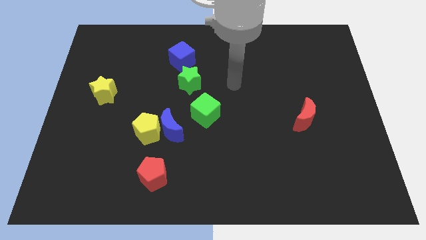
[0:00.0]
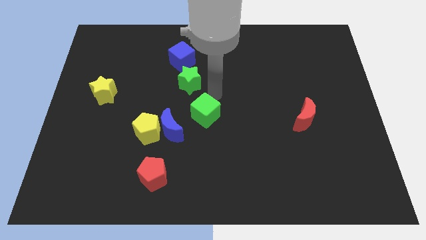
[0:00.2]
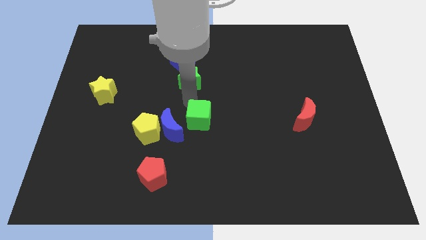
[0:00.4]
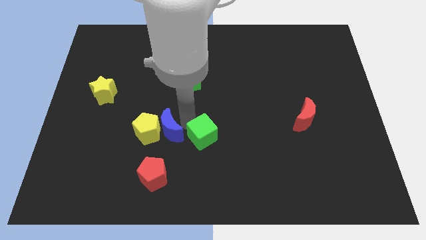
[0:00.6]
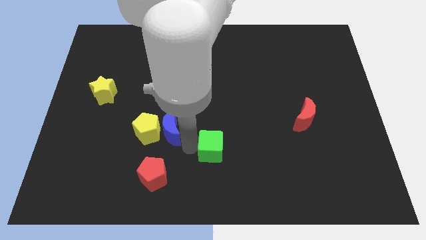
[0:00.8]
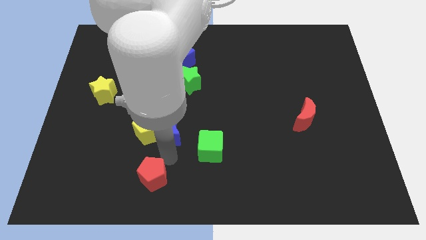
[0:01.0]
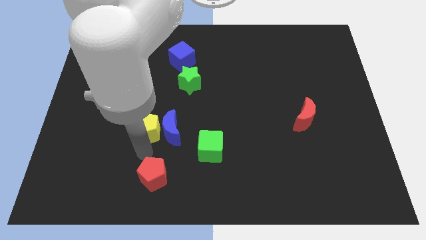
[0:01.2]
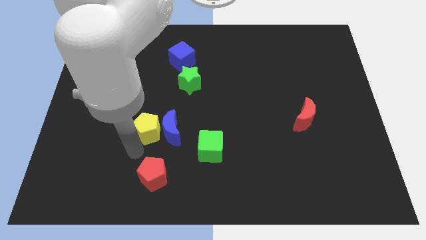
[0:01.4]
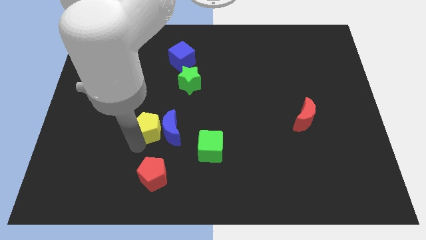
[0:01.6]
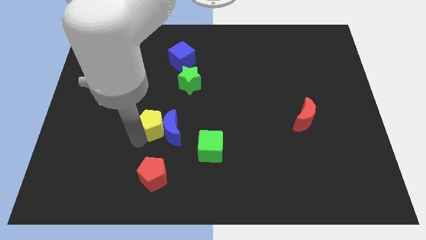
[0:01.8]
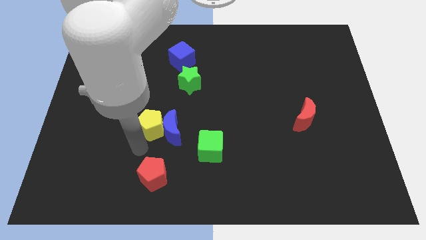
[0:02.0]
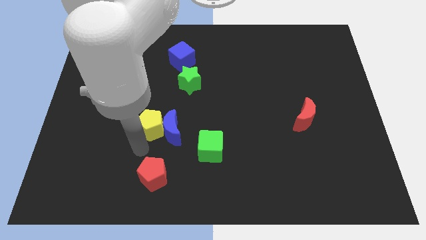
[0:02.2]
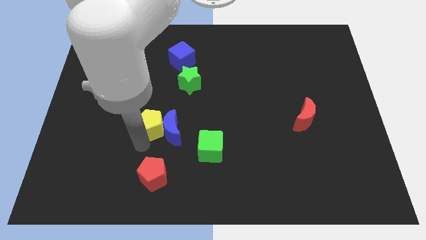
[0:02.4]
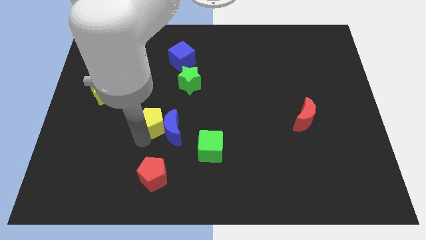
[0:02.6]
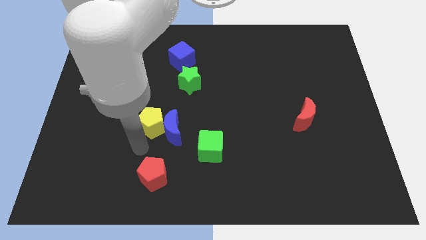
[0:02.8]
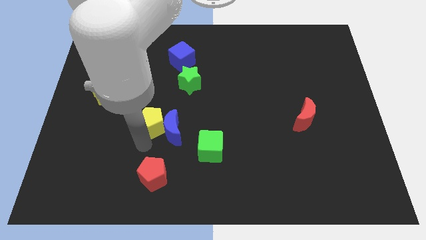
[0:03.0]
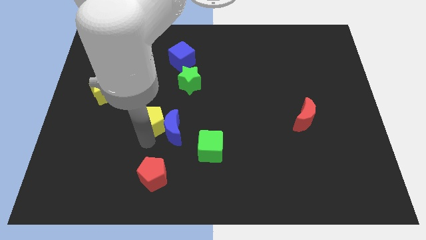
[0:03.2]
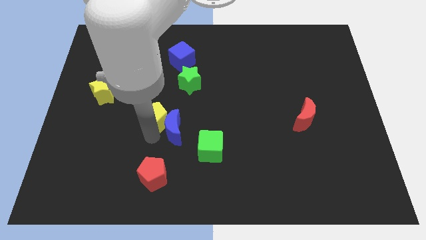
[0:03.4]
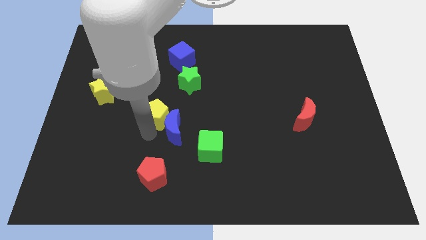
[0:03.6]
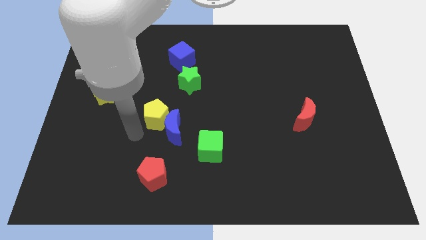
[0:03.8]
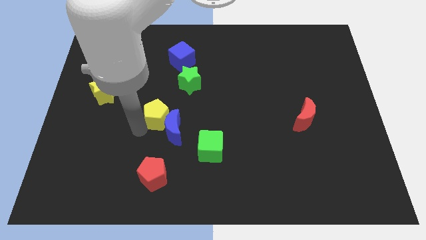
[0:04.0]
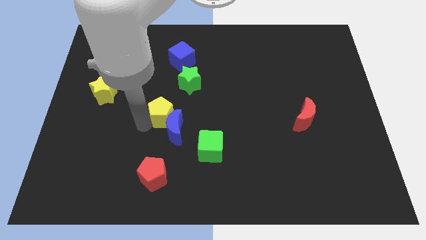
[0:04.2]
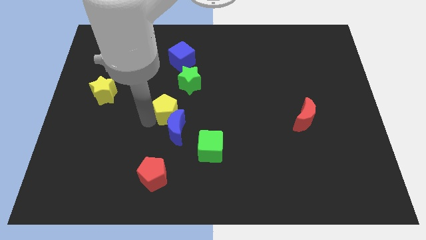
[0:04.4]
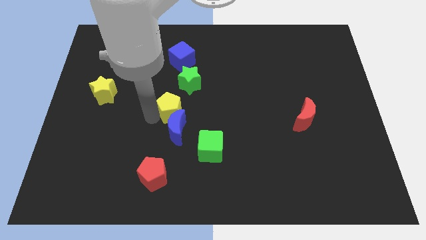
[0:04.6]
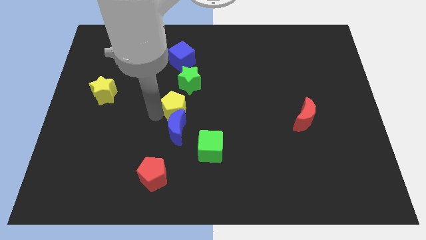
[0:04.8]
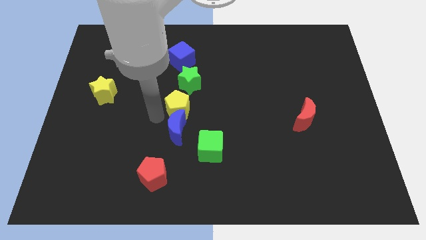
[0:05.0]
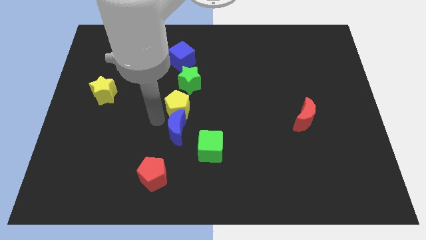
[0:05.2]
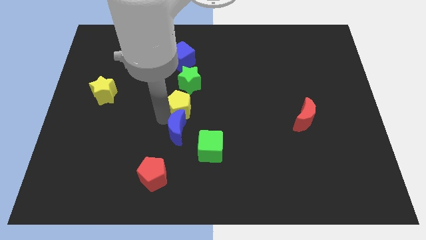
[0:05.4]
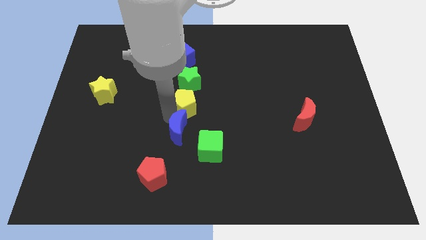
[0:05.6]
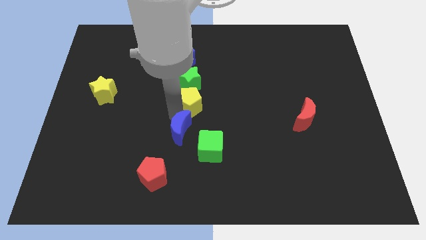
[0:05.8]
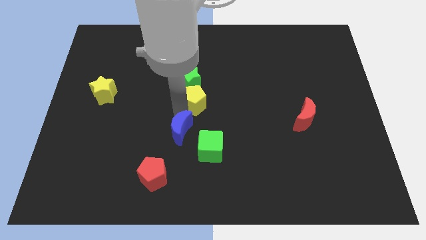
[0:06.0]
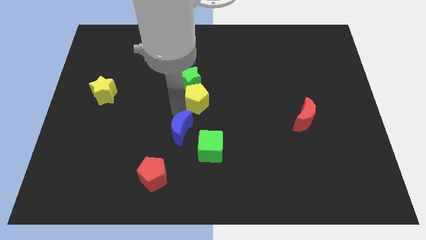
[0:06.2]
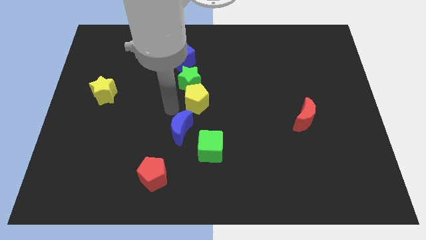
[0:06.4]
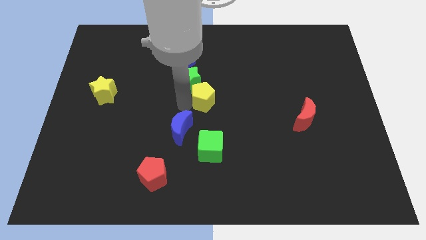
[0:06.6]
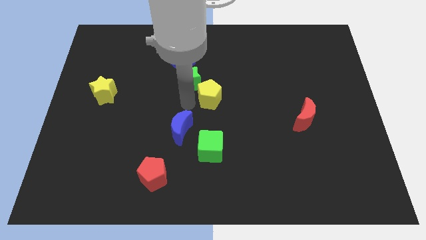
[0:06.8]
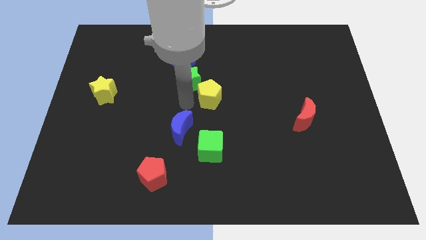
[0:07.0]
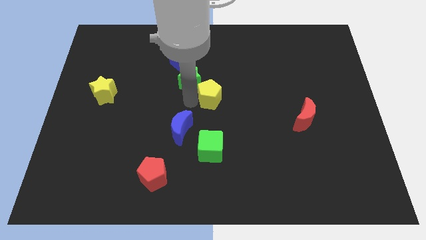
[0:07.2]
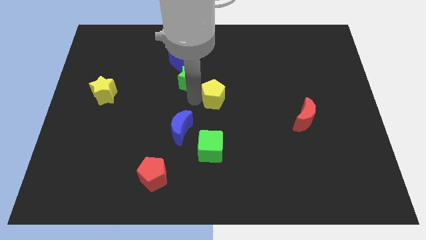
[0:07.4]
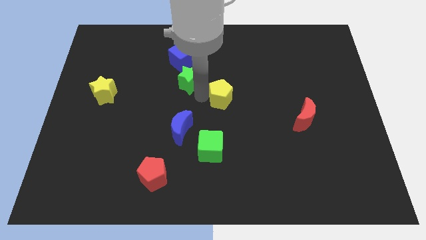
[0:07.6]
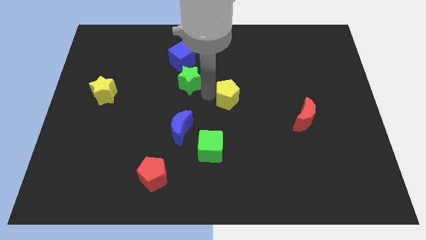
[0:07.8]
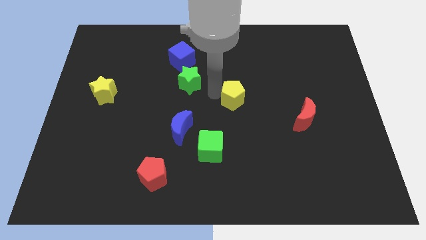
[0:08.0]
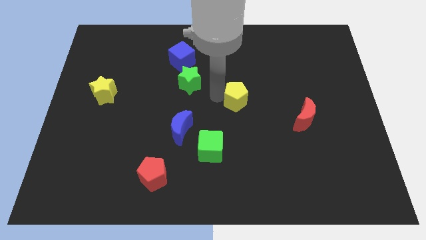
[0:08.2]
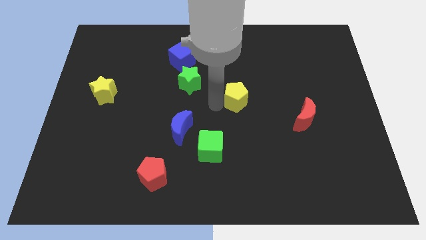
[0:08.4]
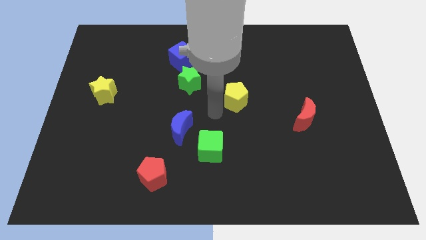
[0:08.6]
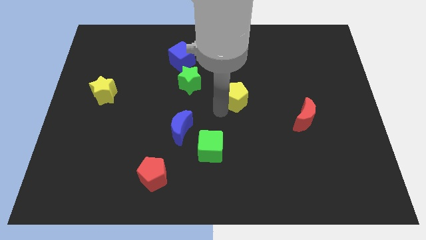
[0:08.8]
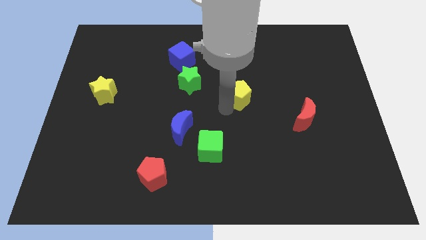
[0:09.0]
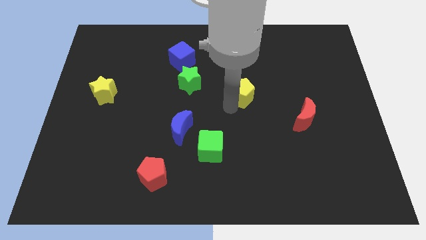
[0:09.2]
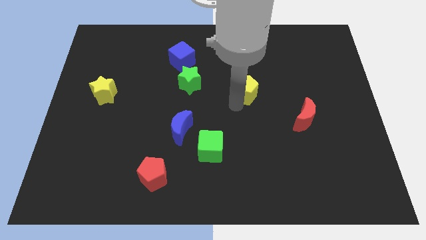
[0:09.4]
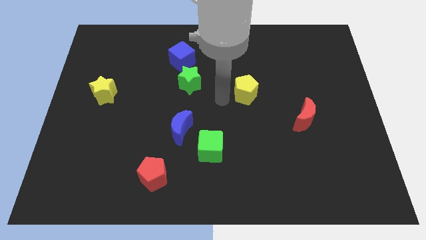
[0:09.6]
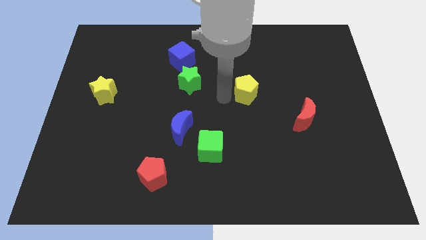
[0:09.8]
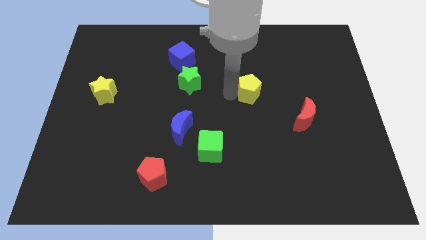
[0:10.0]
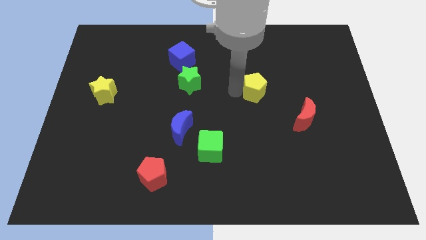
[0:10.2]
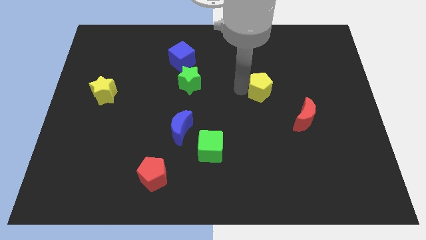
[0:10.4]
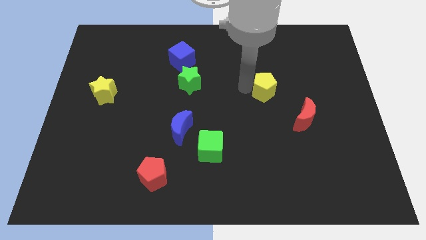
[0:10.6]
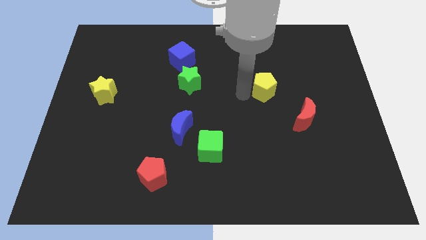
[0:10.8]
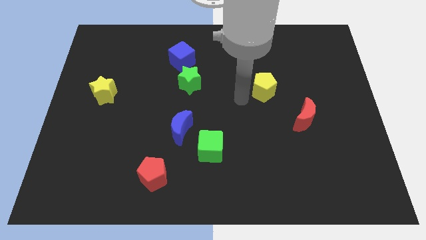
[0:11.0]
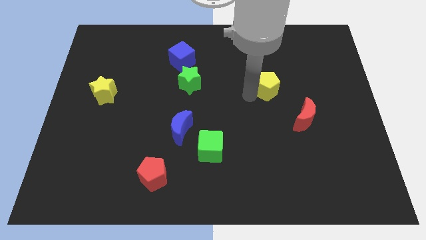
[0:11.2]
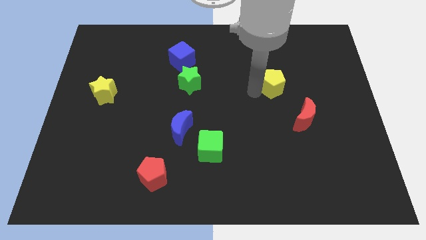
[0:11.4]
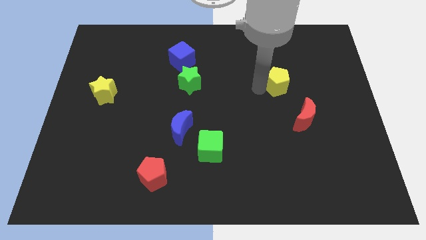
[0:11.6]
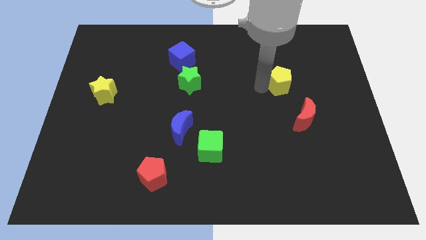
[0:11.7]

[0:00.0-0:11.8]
push the yellow pentagon to the top of the red moon

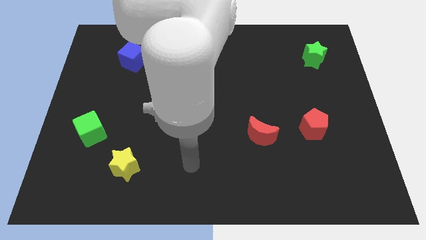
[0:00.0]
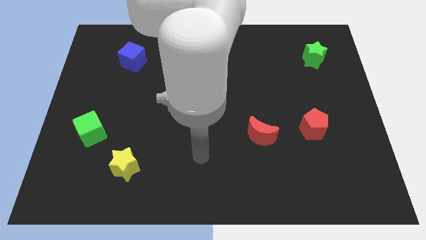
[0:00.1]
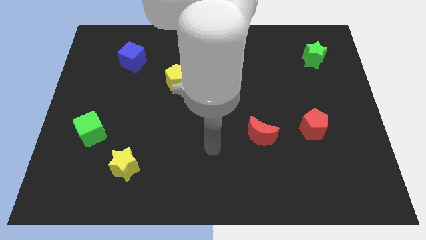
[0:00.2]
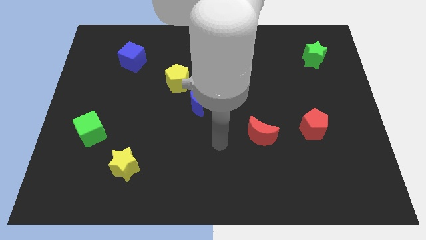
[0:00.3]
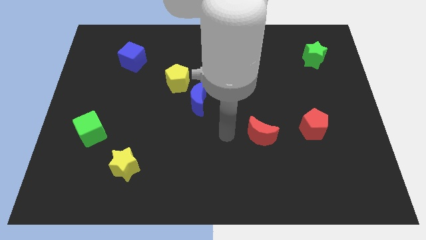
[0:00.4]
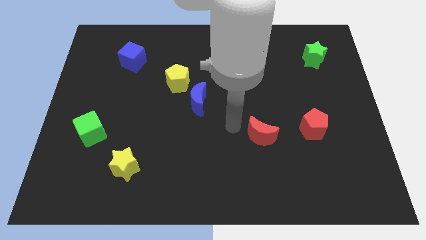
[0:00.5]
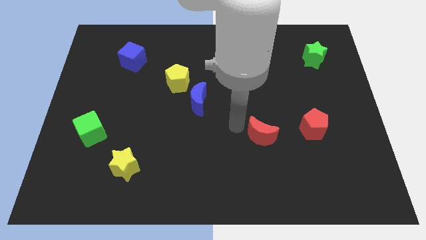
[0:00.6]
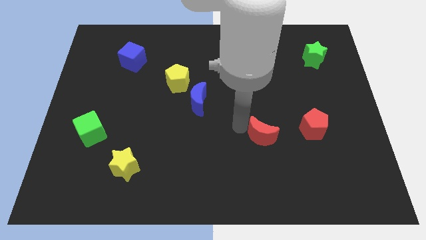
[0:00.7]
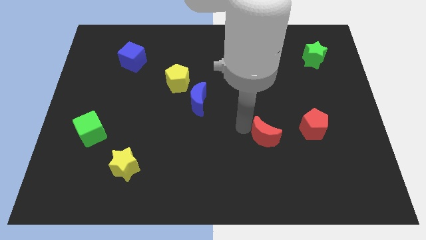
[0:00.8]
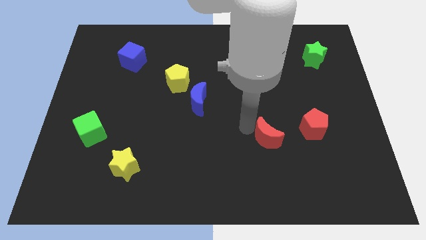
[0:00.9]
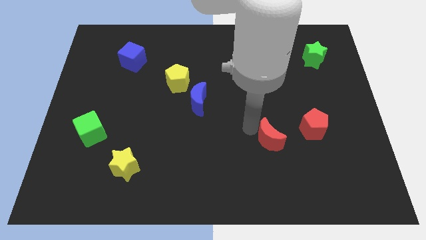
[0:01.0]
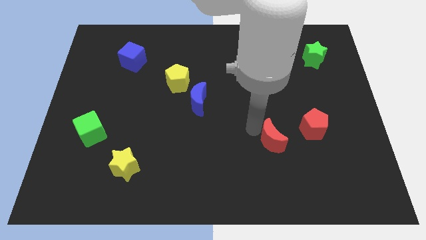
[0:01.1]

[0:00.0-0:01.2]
slide the red moon to the bottom left side of the red pentagon
